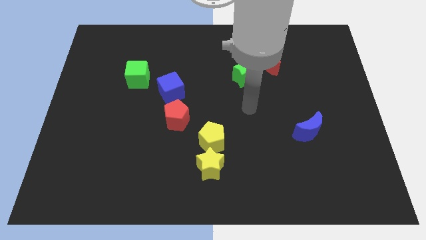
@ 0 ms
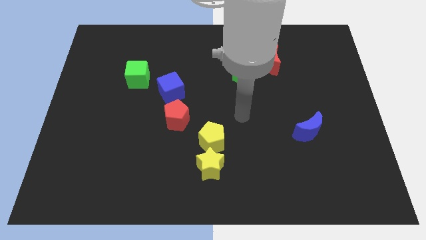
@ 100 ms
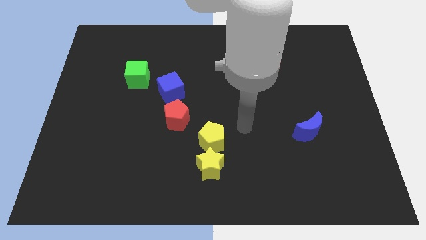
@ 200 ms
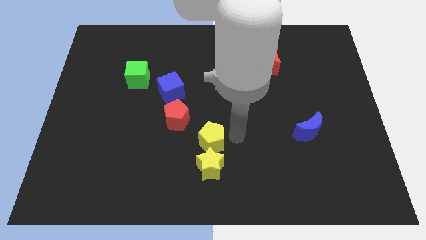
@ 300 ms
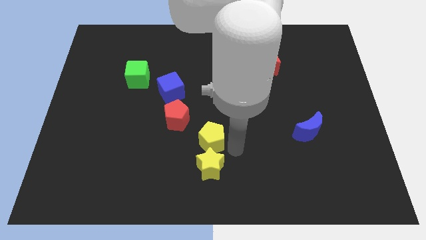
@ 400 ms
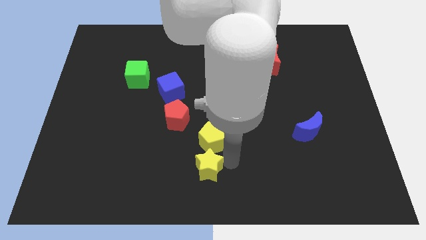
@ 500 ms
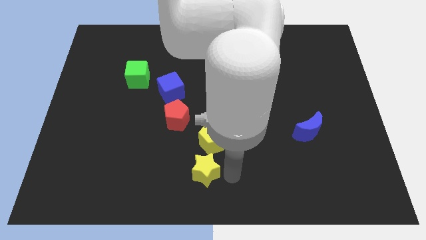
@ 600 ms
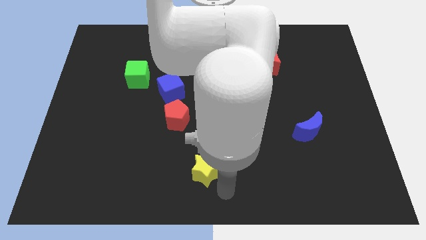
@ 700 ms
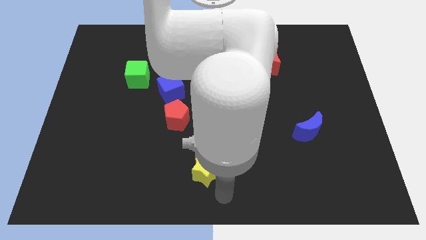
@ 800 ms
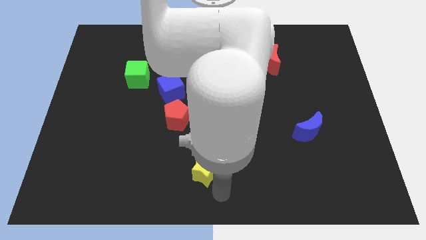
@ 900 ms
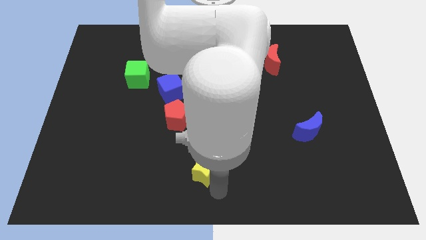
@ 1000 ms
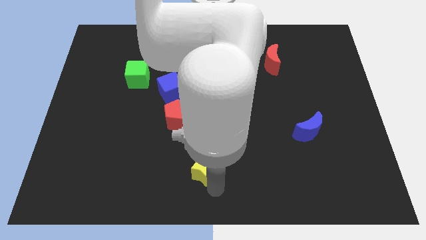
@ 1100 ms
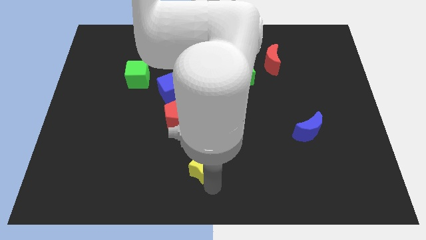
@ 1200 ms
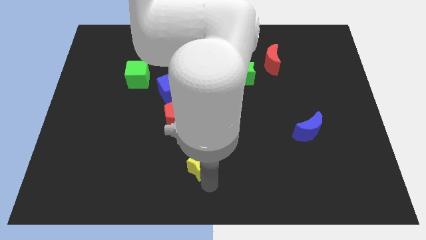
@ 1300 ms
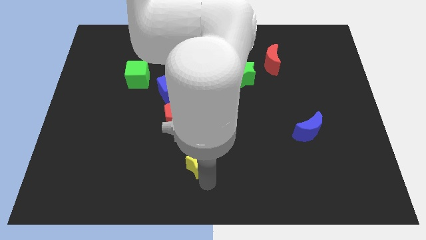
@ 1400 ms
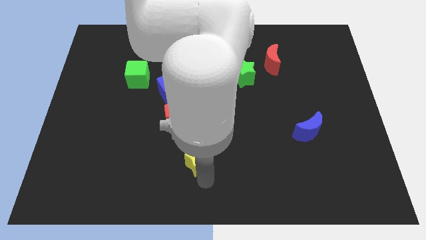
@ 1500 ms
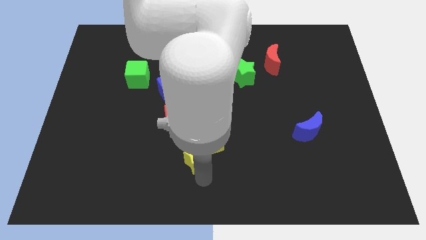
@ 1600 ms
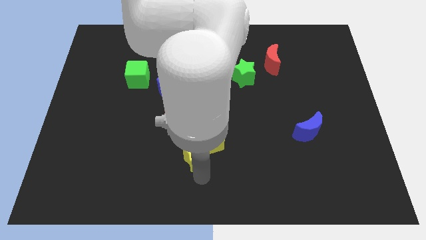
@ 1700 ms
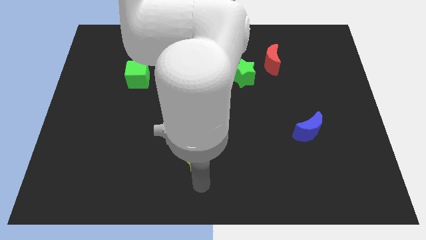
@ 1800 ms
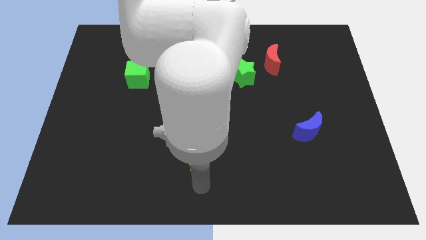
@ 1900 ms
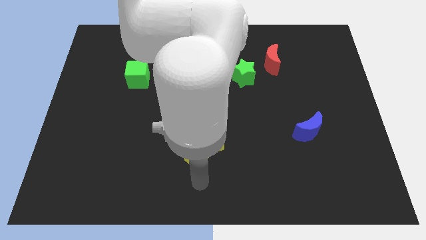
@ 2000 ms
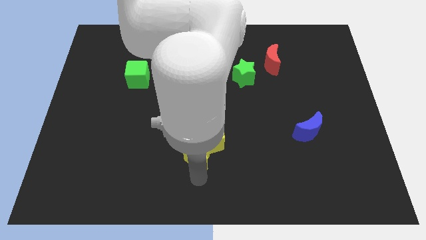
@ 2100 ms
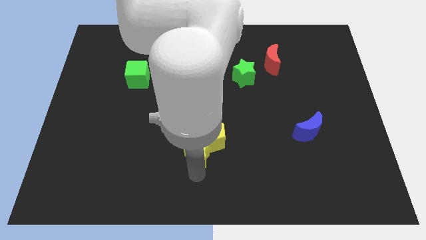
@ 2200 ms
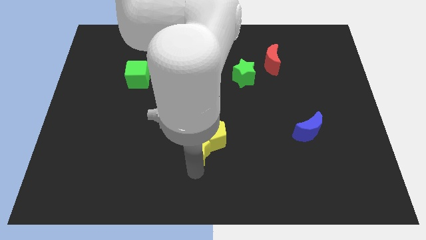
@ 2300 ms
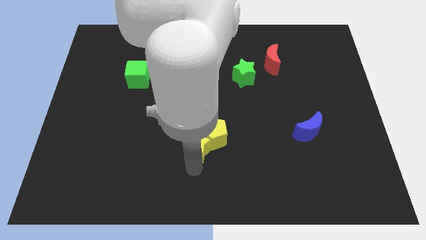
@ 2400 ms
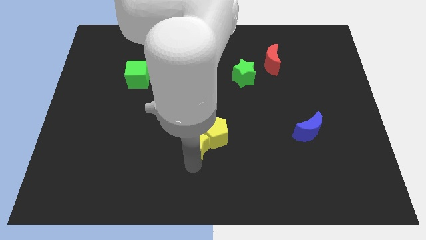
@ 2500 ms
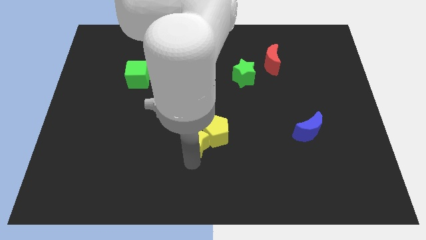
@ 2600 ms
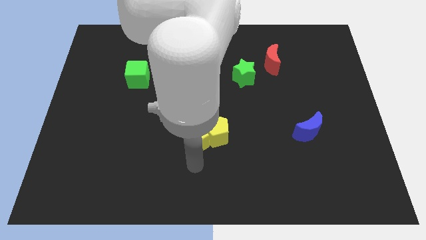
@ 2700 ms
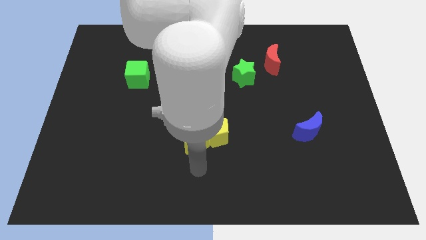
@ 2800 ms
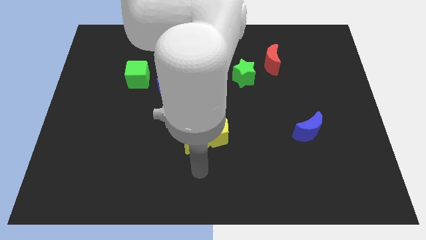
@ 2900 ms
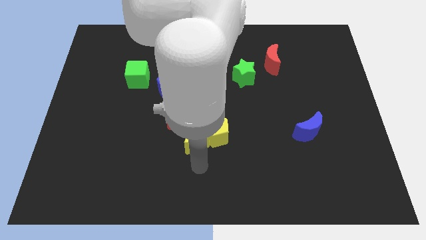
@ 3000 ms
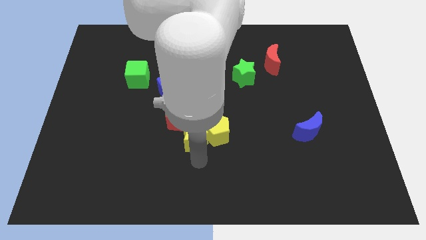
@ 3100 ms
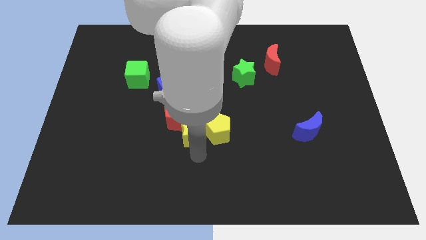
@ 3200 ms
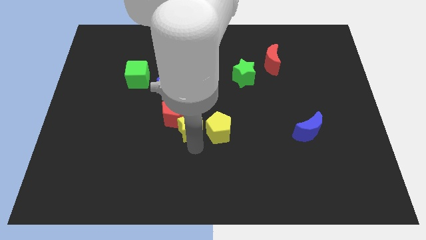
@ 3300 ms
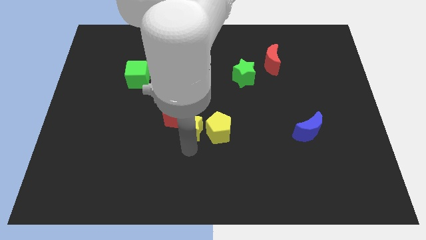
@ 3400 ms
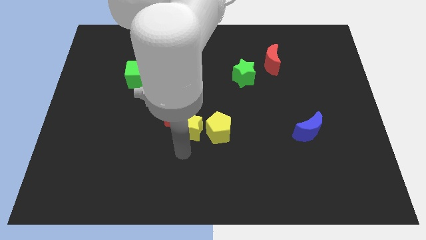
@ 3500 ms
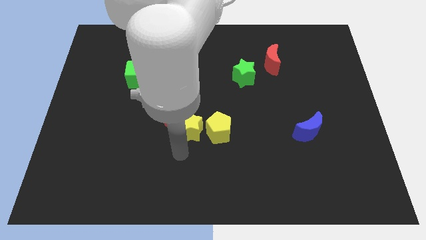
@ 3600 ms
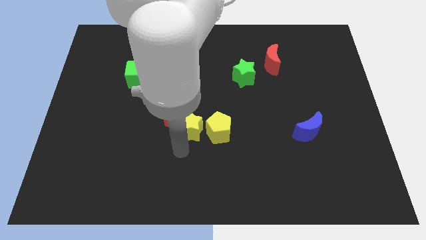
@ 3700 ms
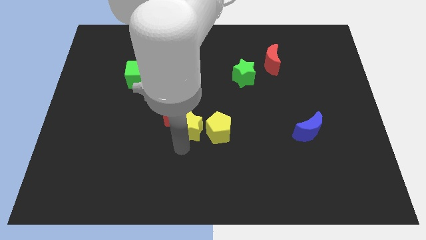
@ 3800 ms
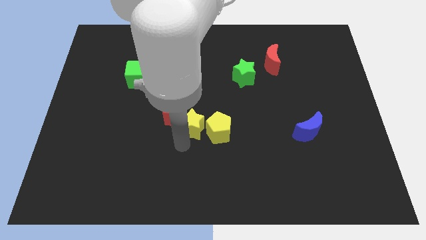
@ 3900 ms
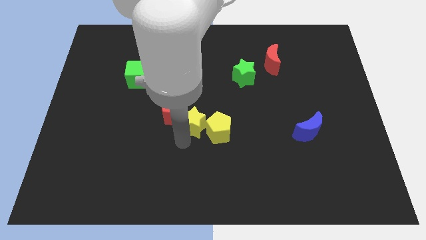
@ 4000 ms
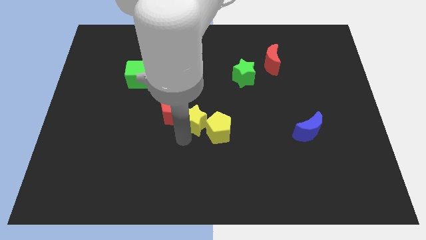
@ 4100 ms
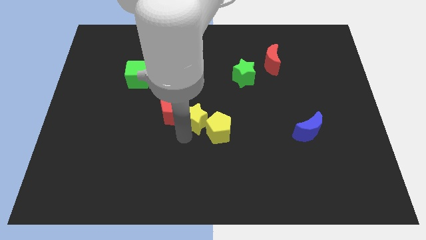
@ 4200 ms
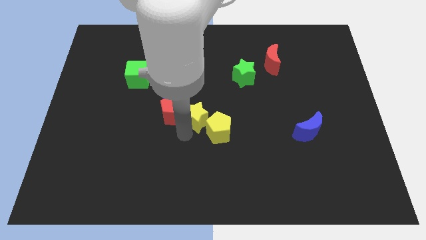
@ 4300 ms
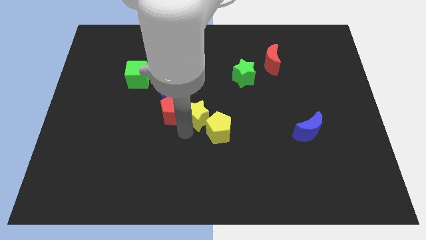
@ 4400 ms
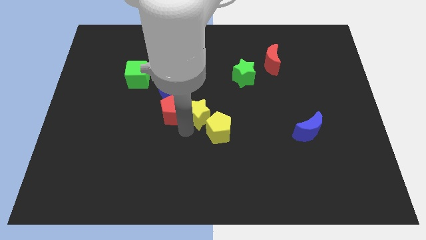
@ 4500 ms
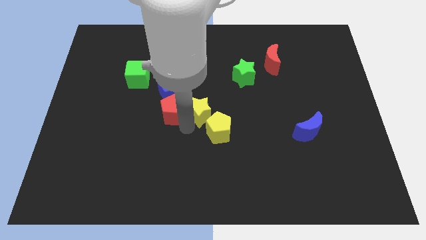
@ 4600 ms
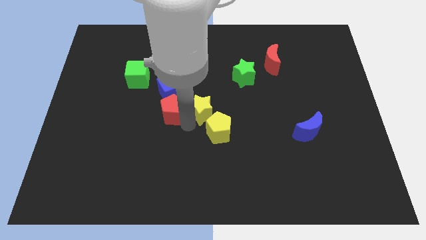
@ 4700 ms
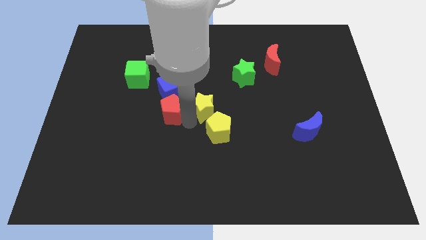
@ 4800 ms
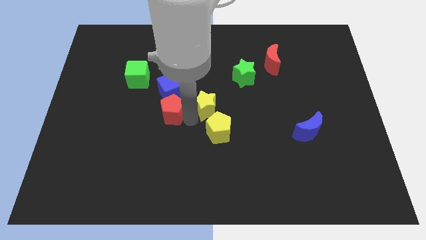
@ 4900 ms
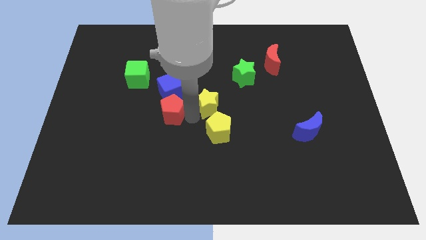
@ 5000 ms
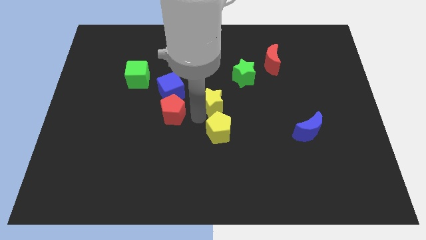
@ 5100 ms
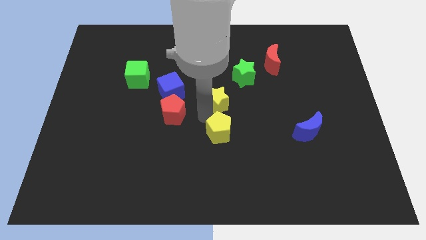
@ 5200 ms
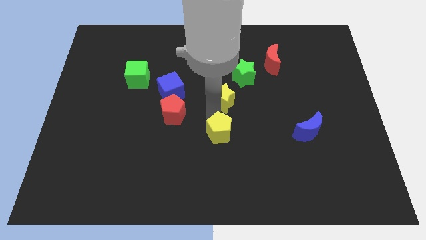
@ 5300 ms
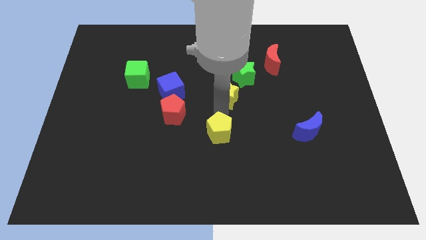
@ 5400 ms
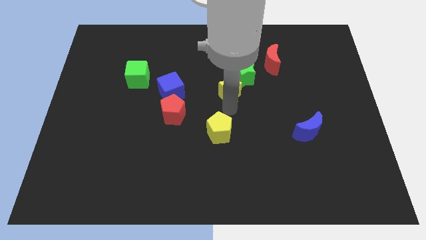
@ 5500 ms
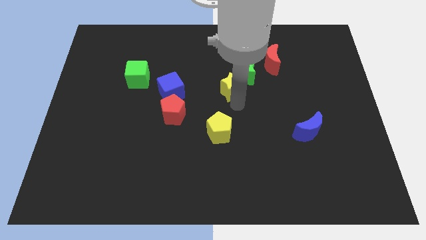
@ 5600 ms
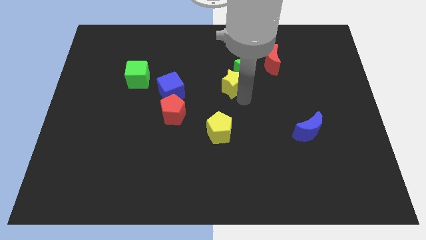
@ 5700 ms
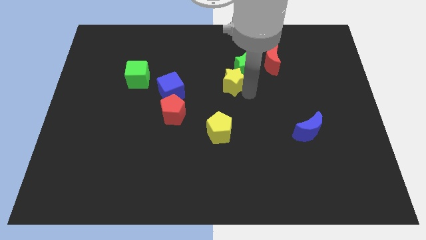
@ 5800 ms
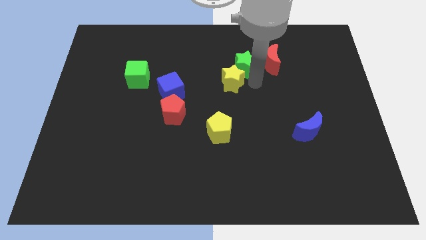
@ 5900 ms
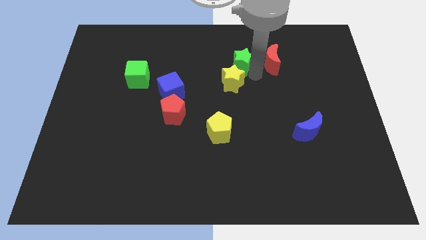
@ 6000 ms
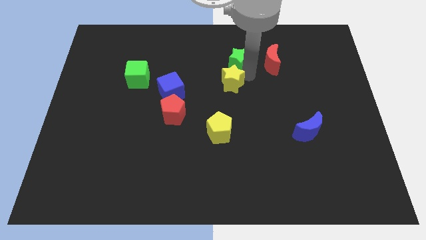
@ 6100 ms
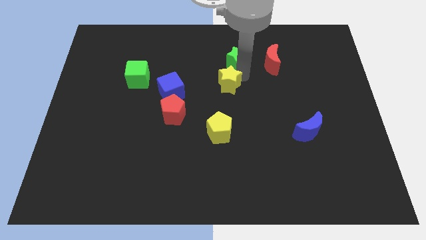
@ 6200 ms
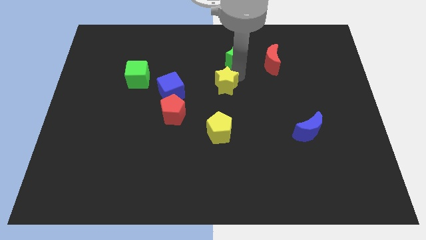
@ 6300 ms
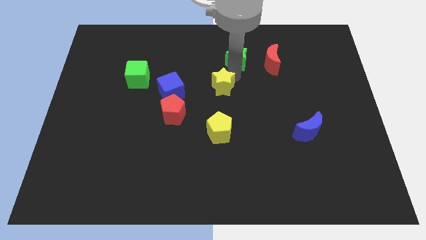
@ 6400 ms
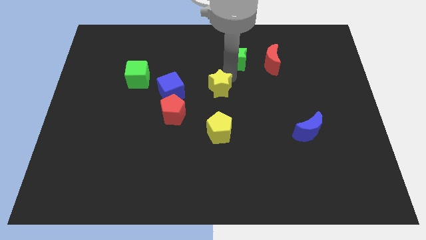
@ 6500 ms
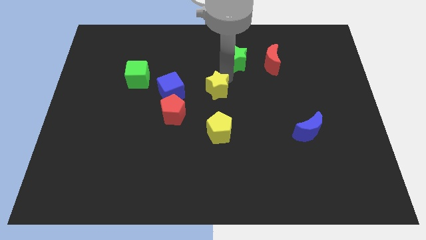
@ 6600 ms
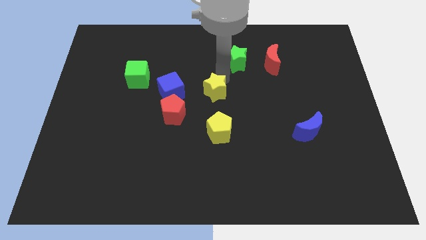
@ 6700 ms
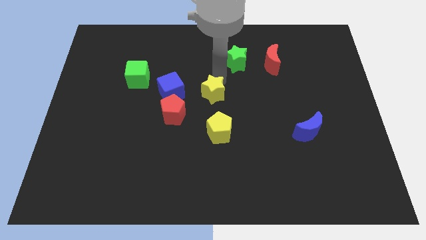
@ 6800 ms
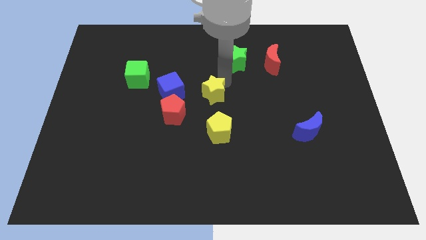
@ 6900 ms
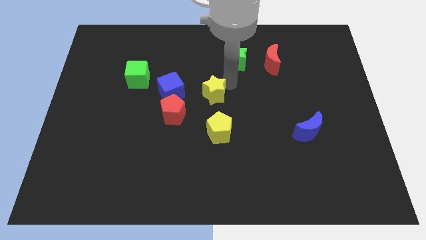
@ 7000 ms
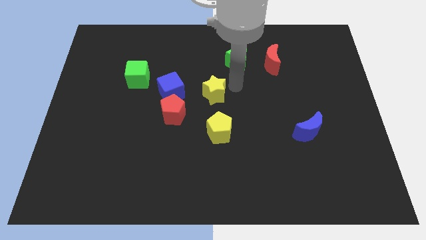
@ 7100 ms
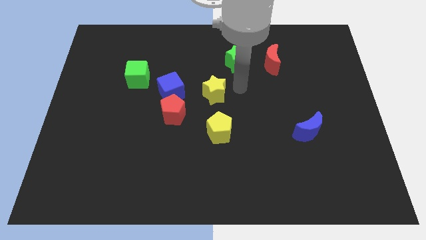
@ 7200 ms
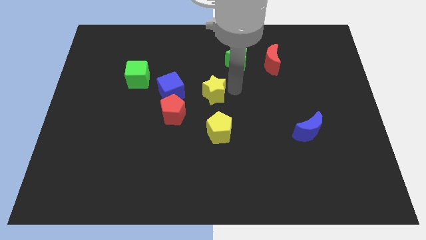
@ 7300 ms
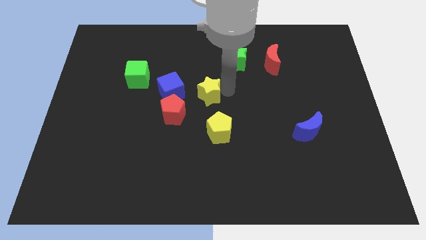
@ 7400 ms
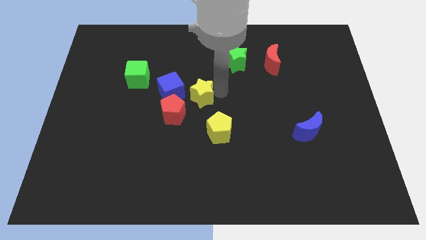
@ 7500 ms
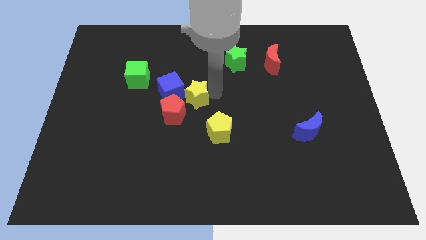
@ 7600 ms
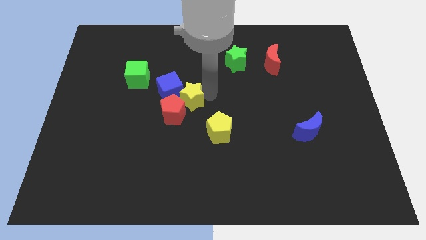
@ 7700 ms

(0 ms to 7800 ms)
move the yellow star to the blue cube
